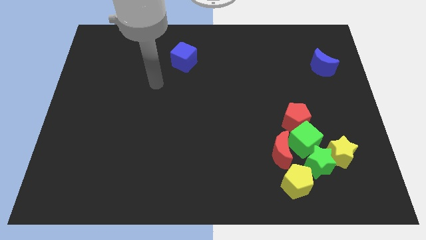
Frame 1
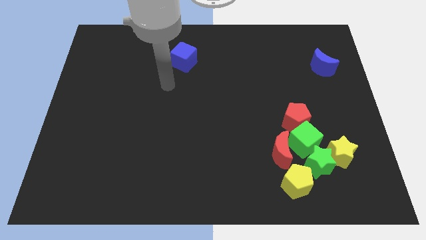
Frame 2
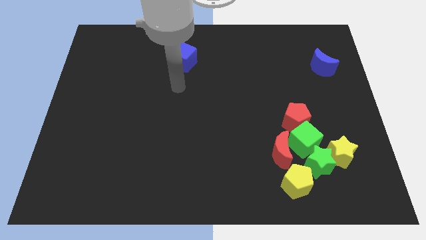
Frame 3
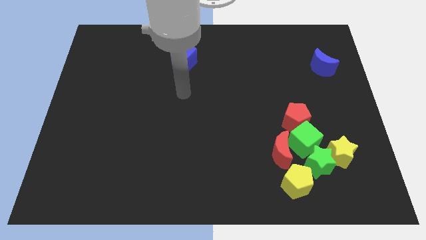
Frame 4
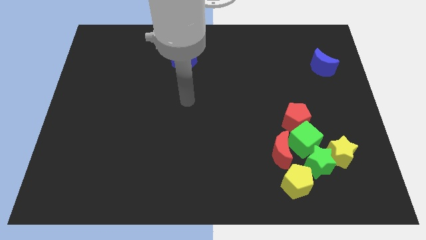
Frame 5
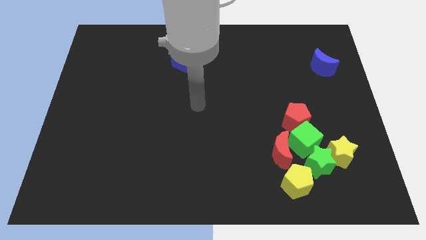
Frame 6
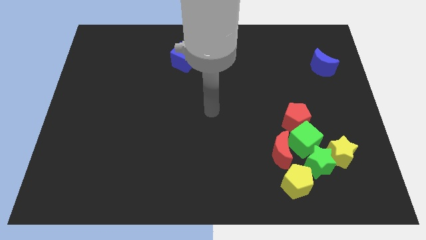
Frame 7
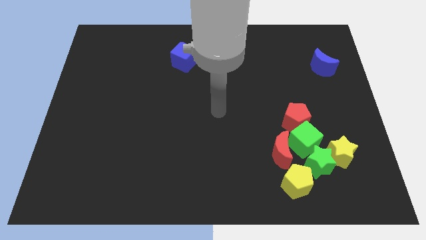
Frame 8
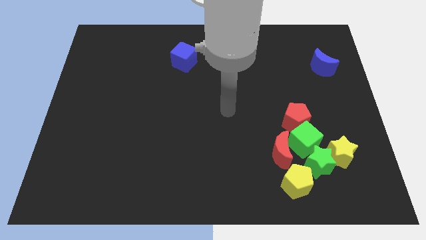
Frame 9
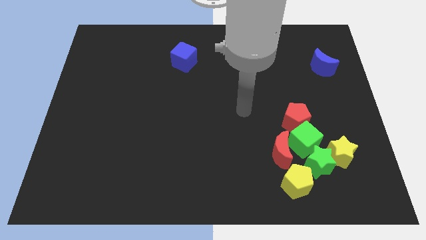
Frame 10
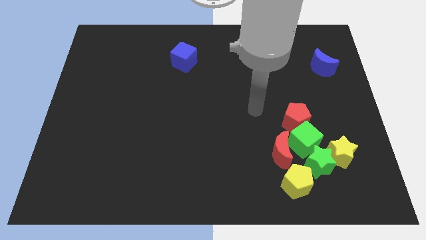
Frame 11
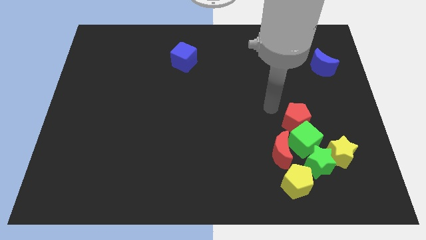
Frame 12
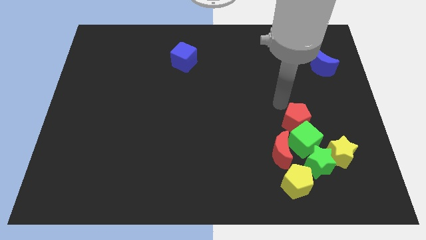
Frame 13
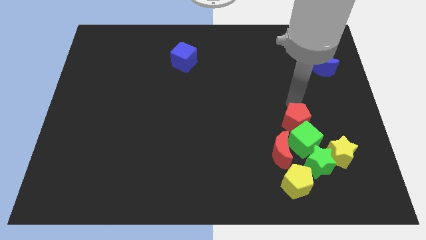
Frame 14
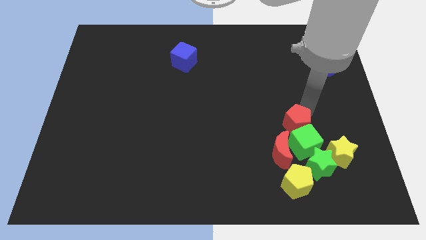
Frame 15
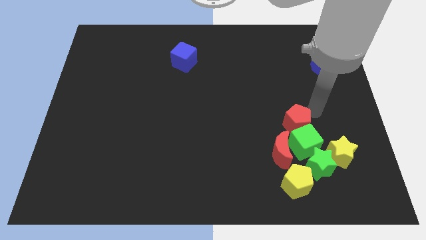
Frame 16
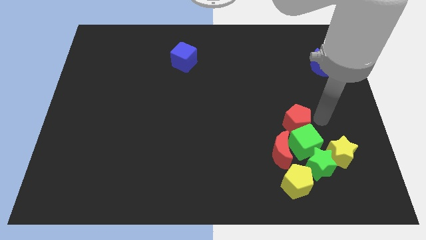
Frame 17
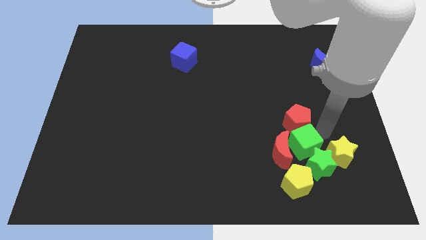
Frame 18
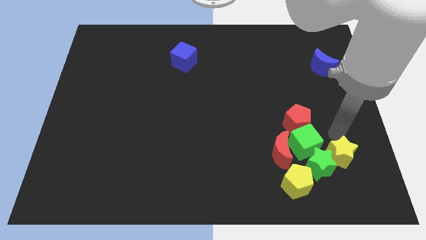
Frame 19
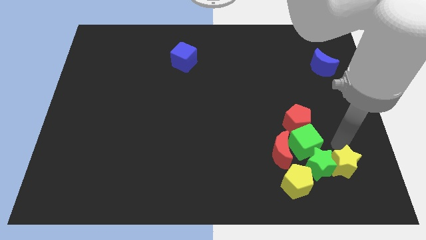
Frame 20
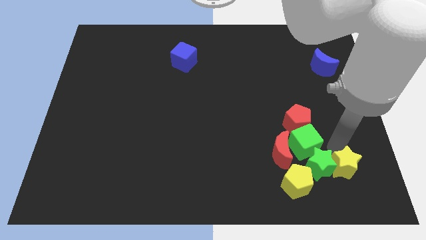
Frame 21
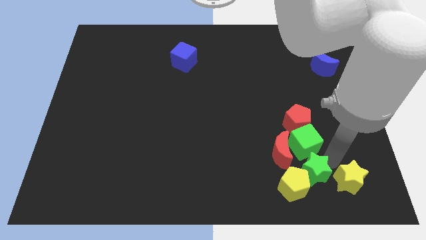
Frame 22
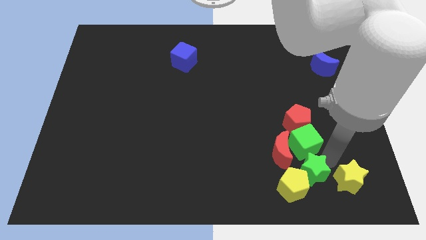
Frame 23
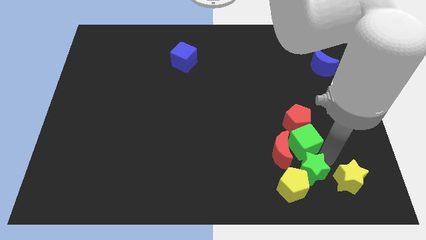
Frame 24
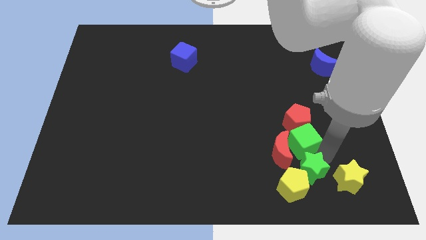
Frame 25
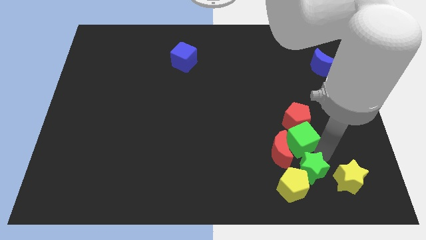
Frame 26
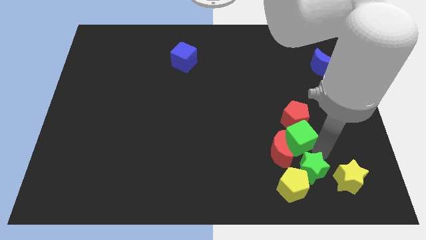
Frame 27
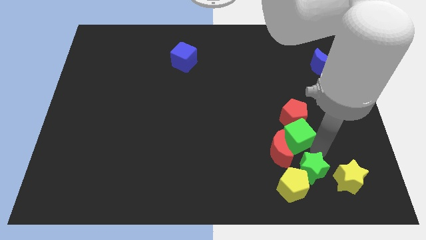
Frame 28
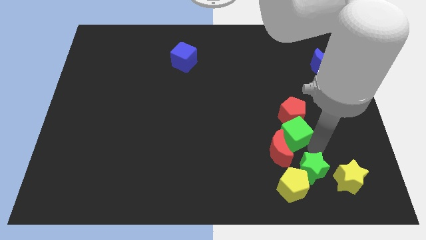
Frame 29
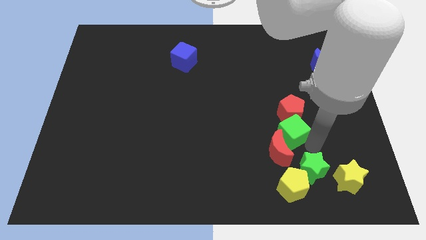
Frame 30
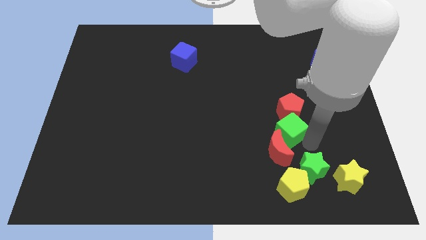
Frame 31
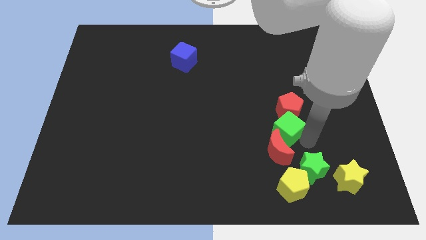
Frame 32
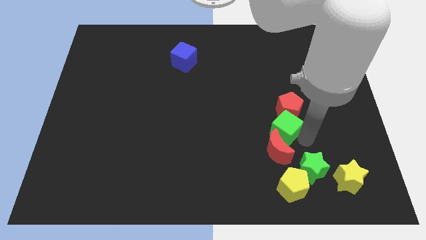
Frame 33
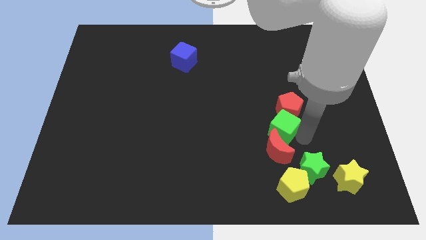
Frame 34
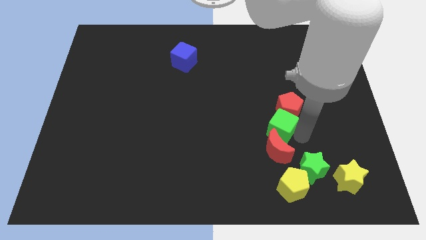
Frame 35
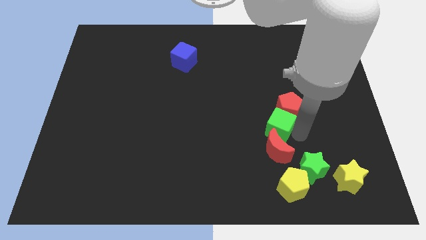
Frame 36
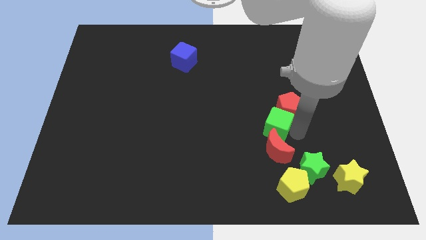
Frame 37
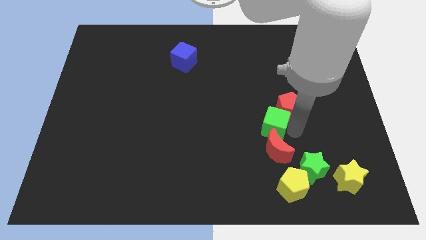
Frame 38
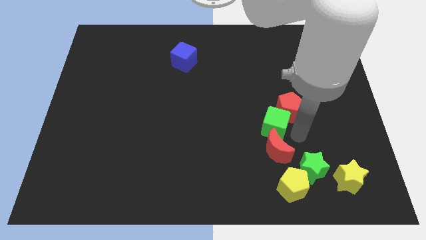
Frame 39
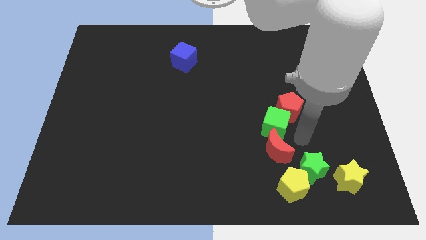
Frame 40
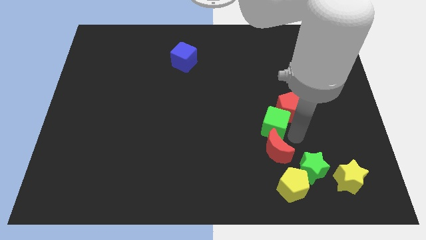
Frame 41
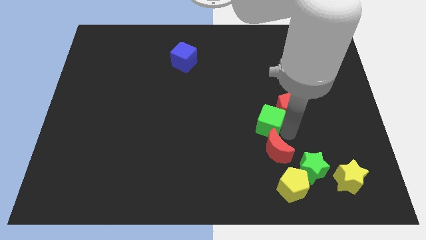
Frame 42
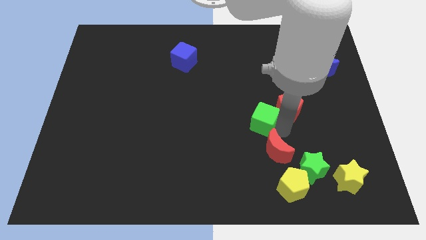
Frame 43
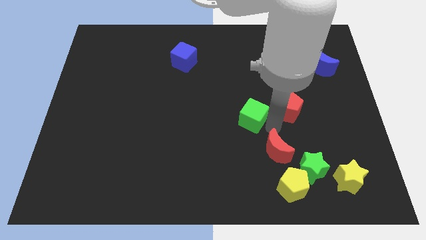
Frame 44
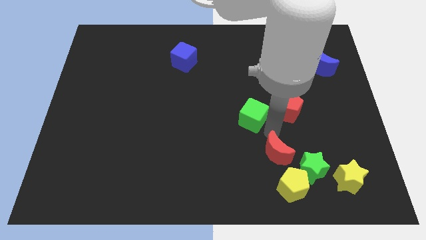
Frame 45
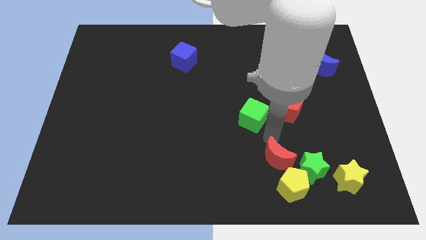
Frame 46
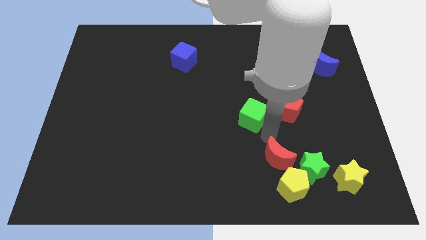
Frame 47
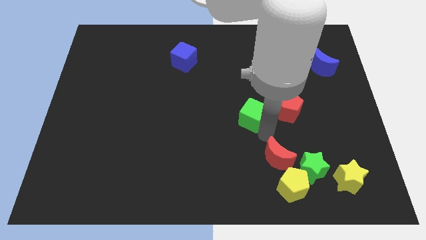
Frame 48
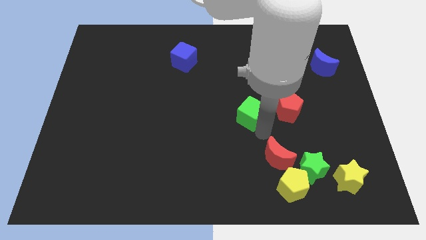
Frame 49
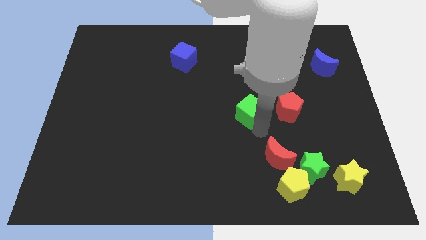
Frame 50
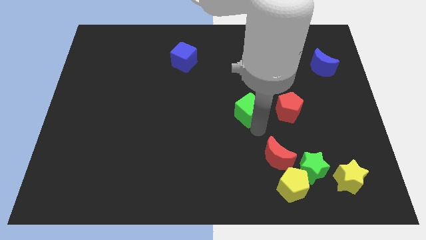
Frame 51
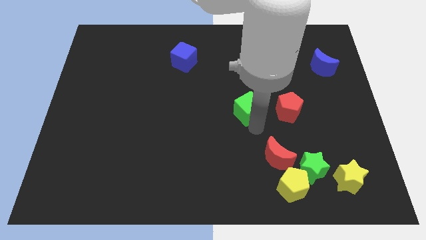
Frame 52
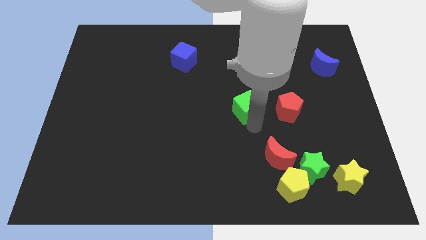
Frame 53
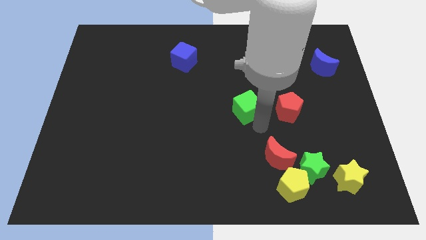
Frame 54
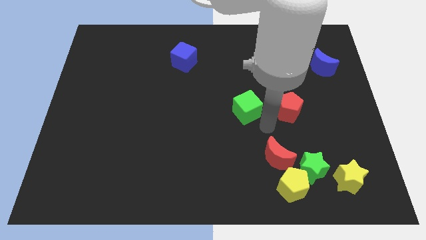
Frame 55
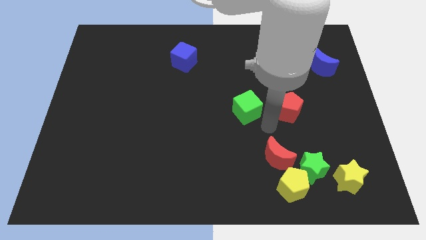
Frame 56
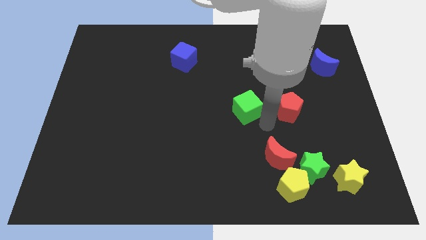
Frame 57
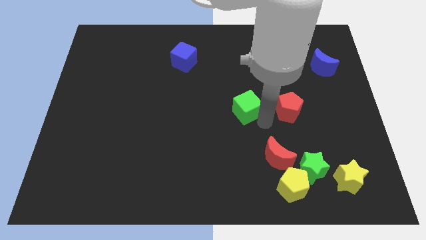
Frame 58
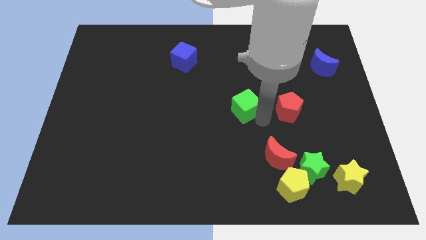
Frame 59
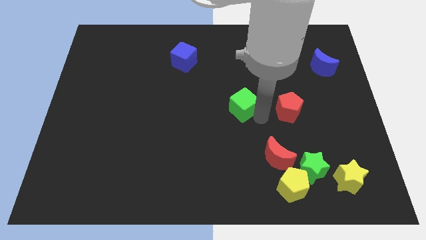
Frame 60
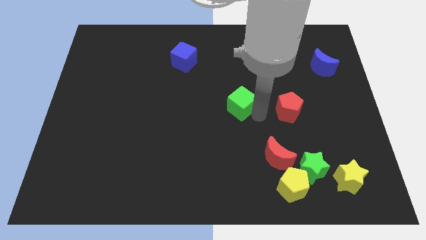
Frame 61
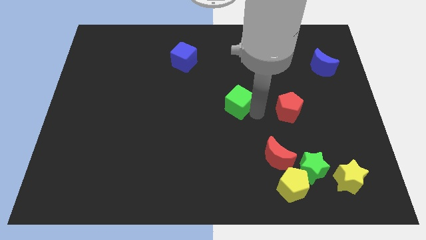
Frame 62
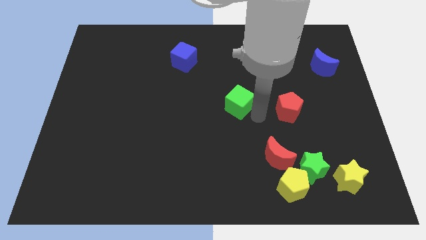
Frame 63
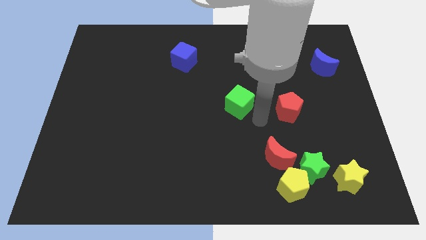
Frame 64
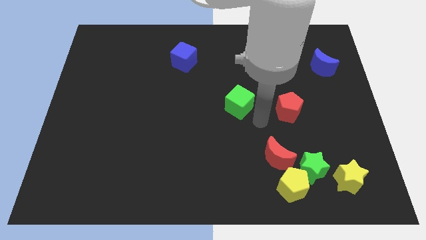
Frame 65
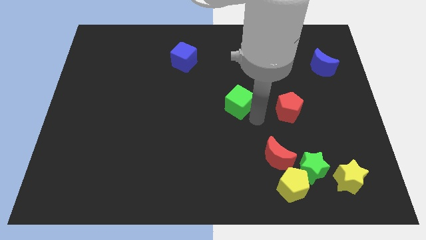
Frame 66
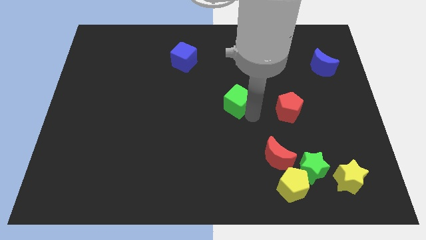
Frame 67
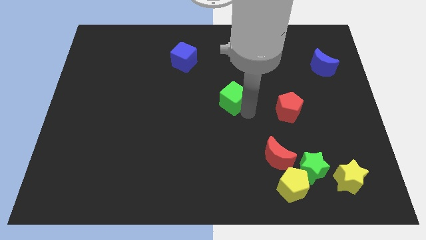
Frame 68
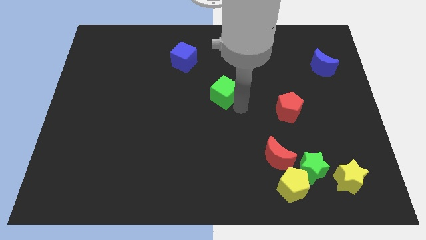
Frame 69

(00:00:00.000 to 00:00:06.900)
slide the green cube up and to the left diagonally

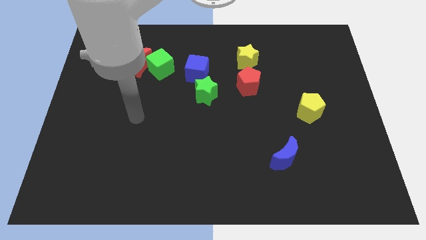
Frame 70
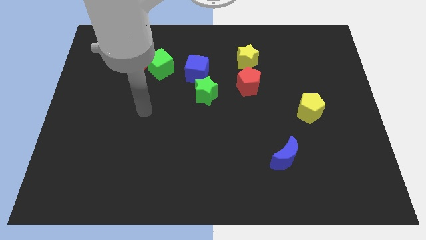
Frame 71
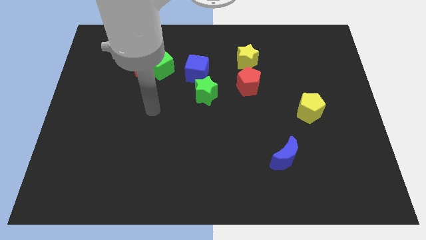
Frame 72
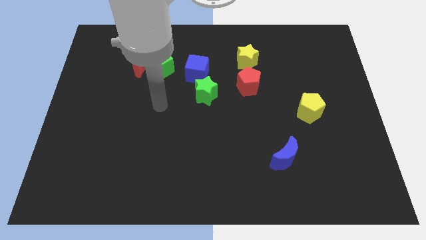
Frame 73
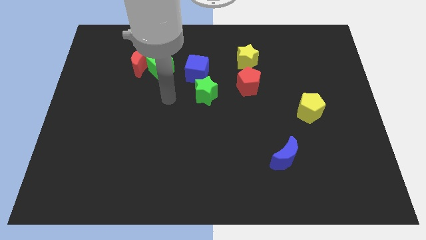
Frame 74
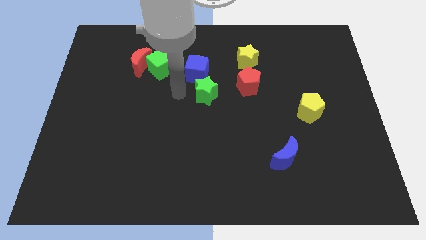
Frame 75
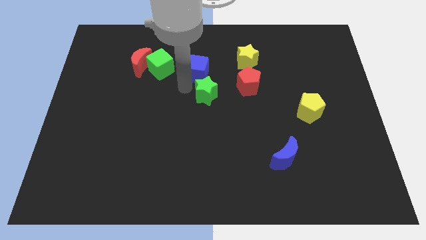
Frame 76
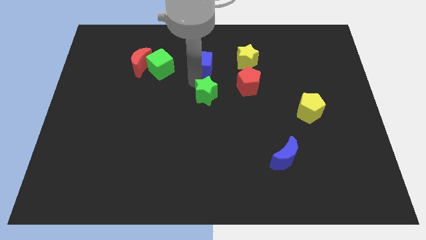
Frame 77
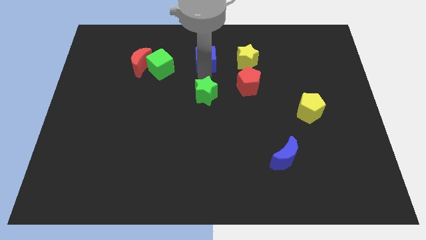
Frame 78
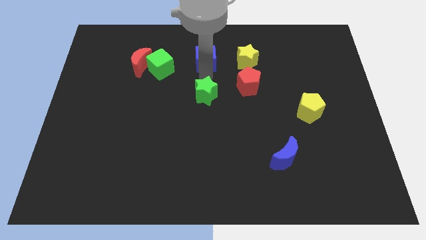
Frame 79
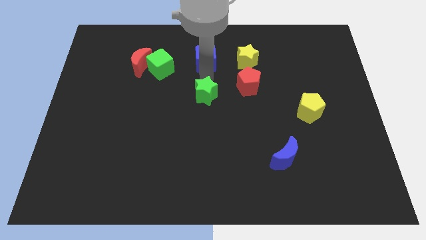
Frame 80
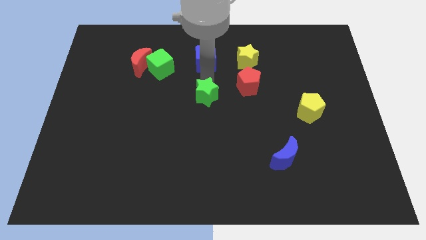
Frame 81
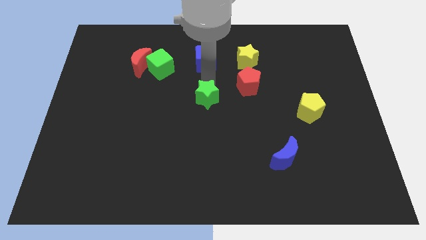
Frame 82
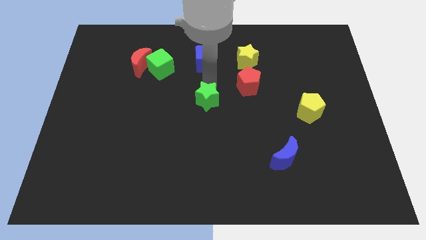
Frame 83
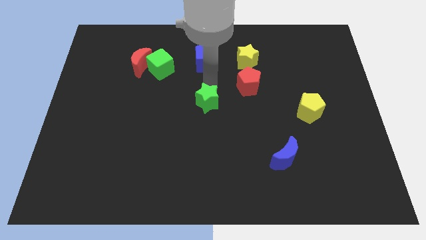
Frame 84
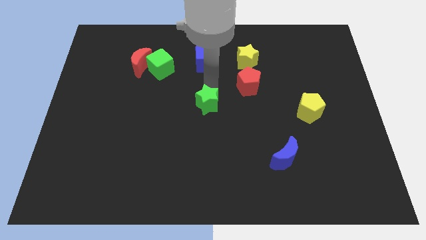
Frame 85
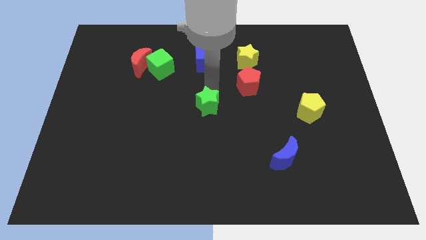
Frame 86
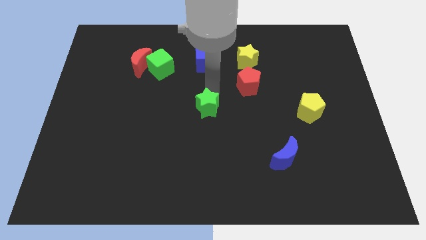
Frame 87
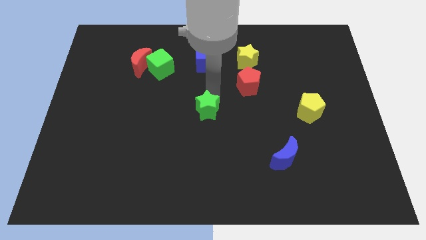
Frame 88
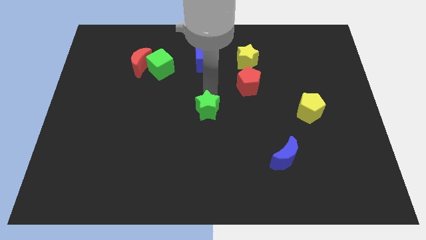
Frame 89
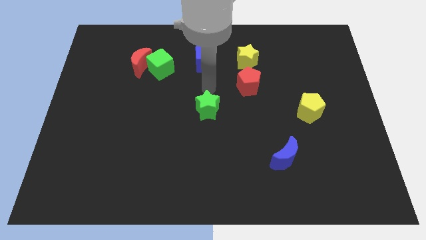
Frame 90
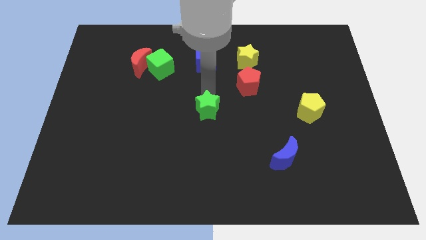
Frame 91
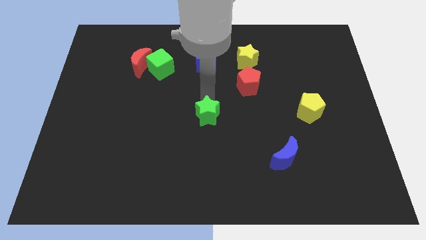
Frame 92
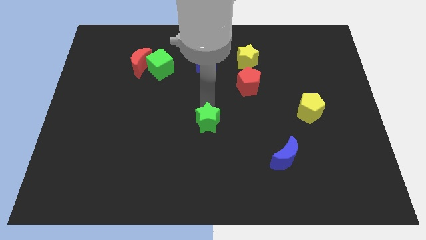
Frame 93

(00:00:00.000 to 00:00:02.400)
move the green star a little bit down
